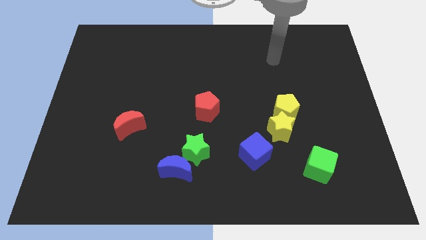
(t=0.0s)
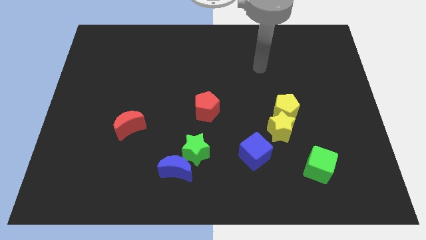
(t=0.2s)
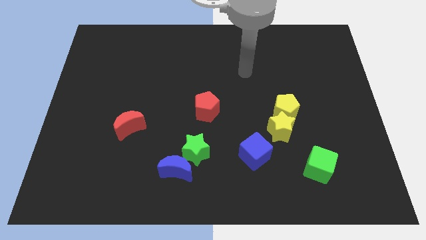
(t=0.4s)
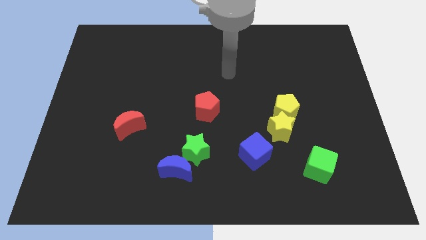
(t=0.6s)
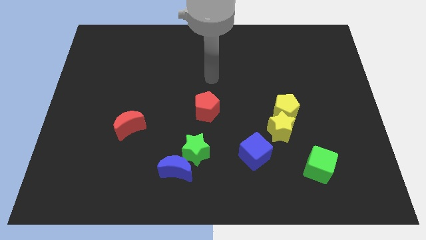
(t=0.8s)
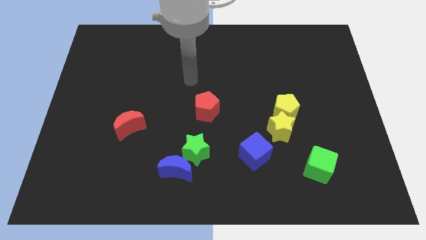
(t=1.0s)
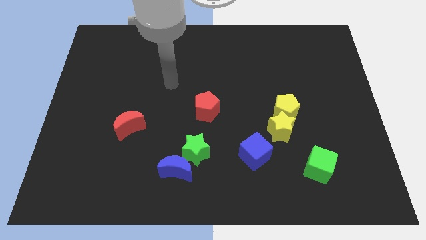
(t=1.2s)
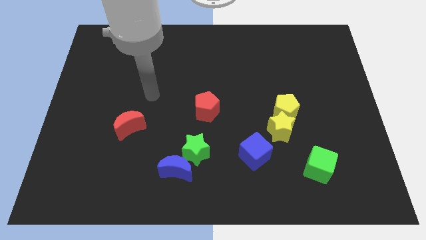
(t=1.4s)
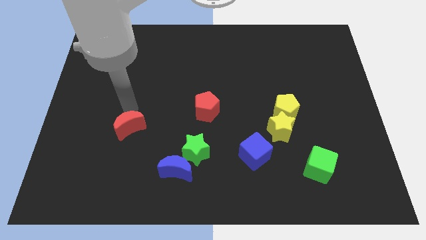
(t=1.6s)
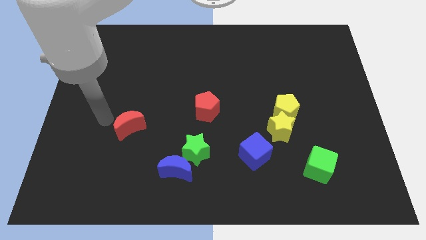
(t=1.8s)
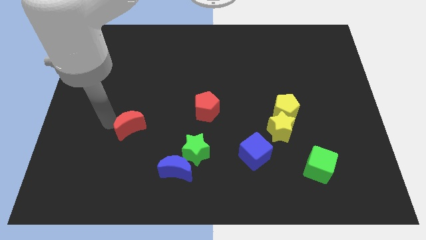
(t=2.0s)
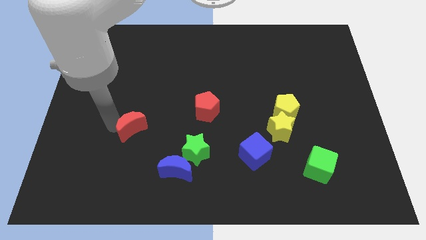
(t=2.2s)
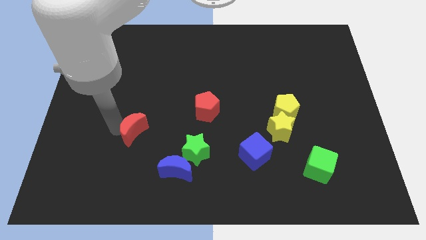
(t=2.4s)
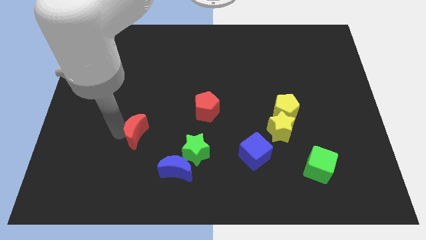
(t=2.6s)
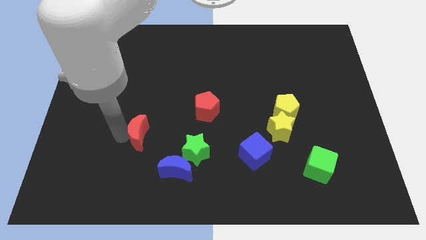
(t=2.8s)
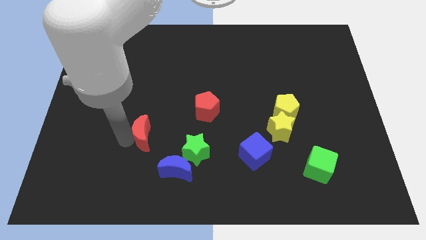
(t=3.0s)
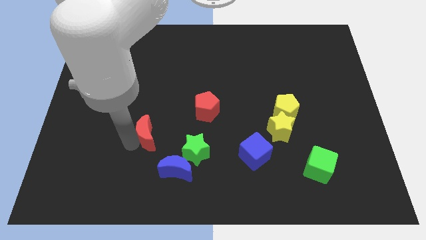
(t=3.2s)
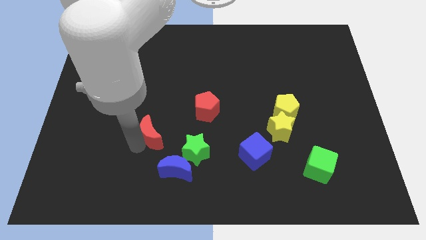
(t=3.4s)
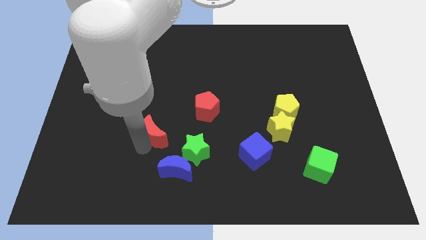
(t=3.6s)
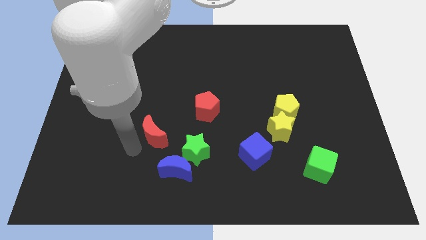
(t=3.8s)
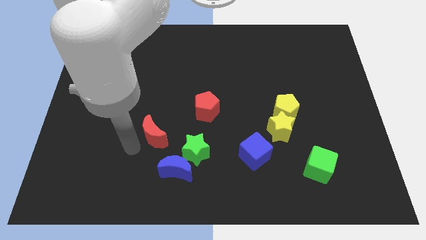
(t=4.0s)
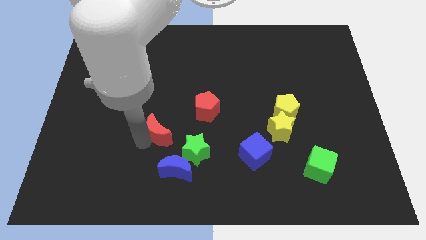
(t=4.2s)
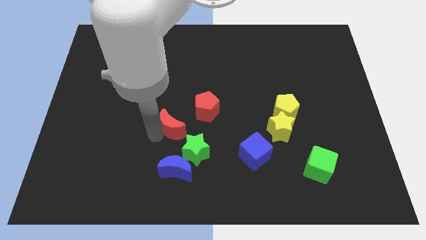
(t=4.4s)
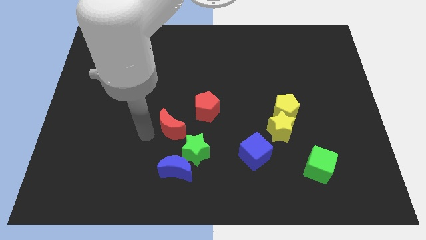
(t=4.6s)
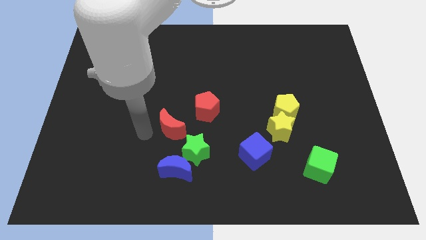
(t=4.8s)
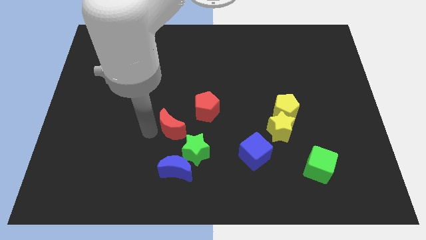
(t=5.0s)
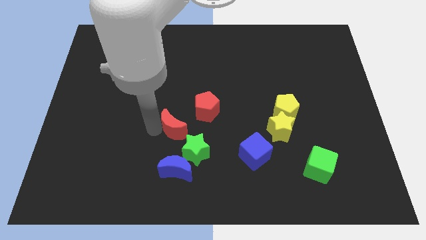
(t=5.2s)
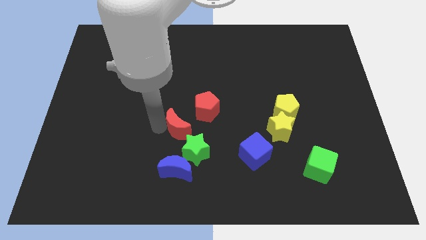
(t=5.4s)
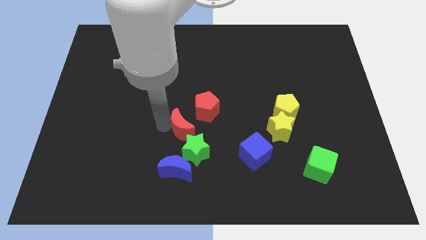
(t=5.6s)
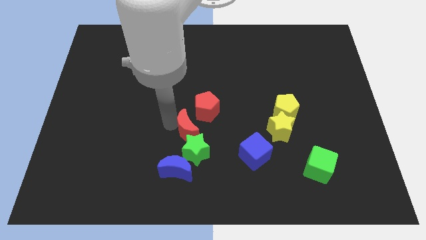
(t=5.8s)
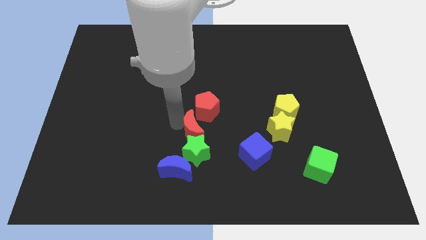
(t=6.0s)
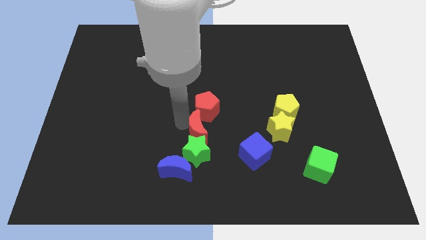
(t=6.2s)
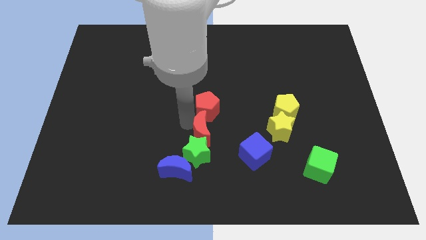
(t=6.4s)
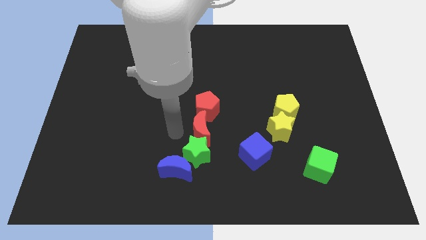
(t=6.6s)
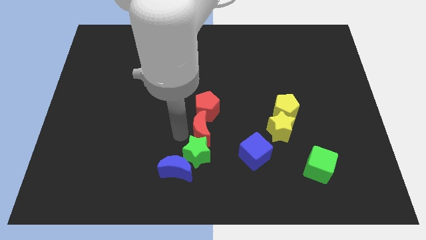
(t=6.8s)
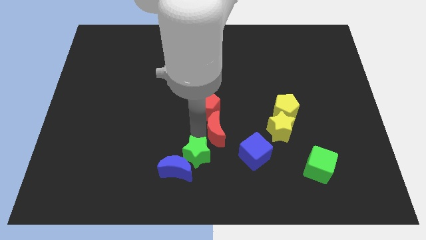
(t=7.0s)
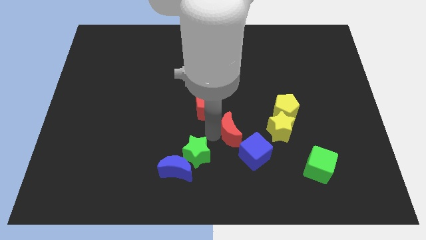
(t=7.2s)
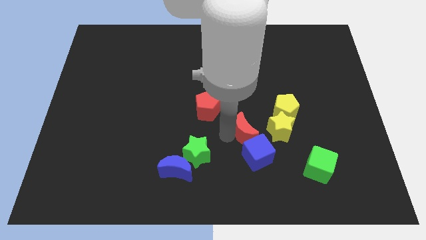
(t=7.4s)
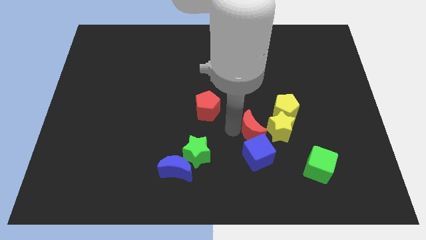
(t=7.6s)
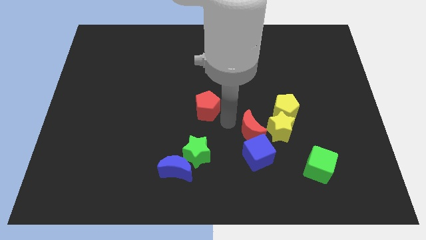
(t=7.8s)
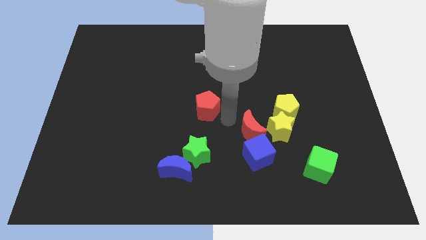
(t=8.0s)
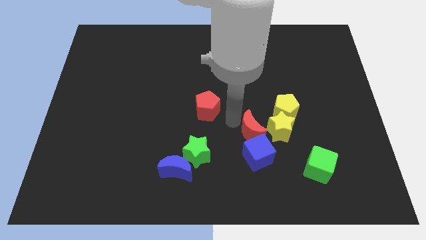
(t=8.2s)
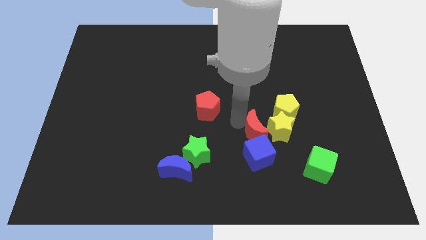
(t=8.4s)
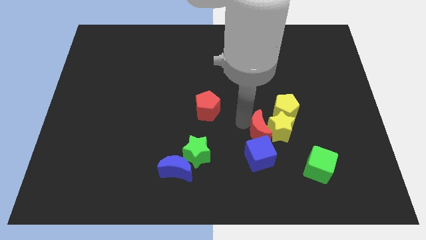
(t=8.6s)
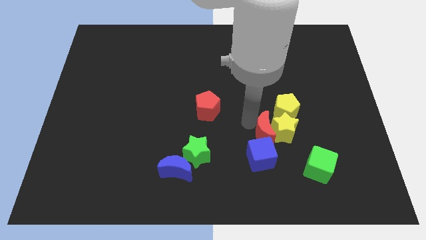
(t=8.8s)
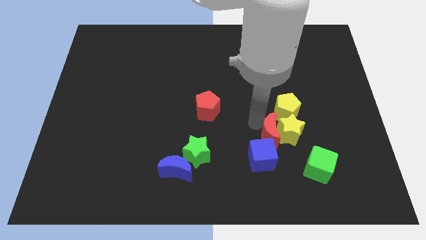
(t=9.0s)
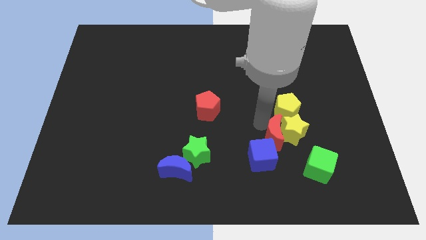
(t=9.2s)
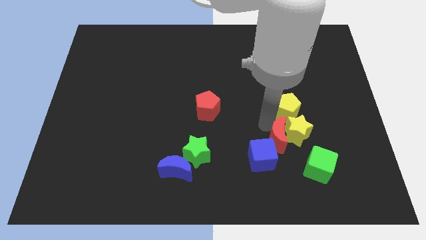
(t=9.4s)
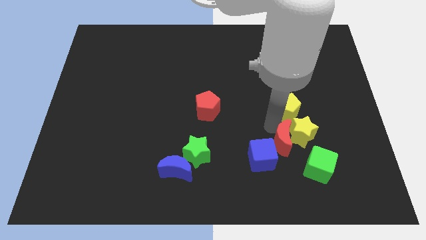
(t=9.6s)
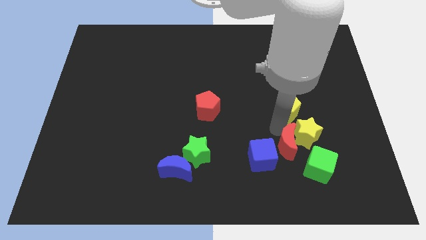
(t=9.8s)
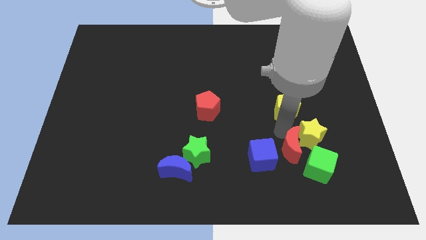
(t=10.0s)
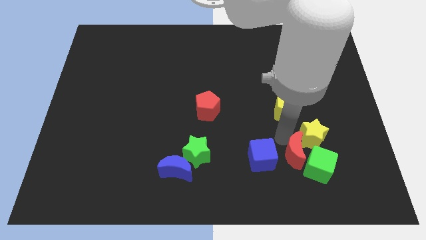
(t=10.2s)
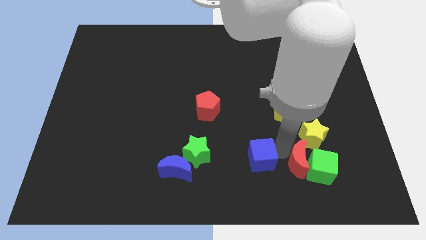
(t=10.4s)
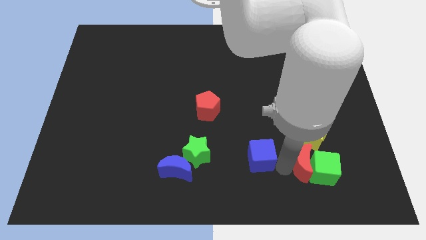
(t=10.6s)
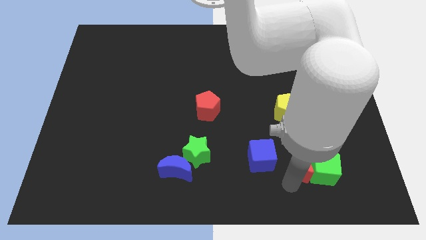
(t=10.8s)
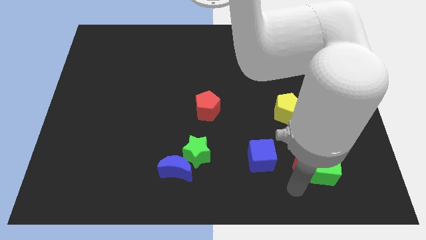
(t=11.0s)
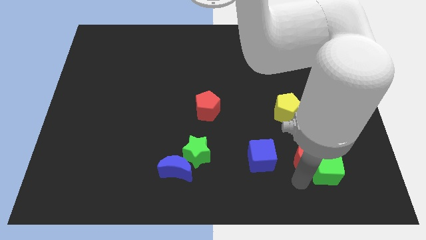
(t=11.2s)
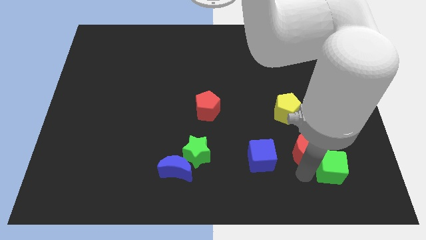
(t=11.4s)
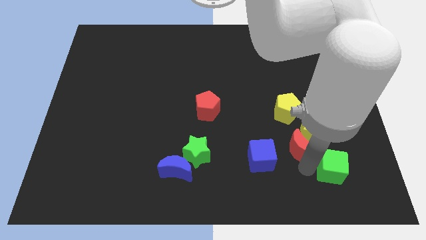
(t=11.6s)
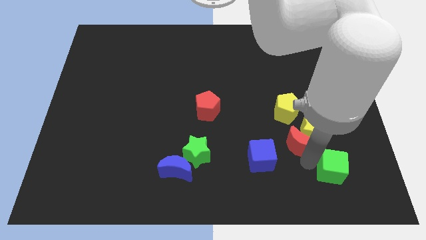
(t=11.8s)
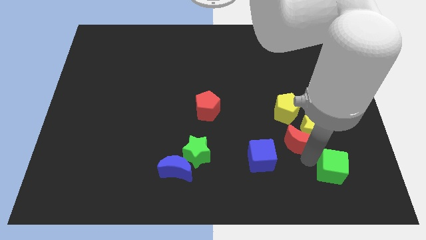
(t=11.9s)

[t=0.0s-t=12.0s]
push the red moon to the bottom right of the yellow pentagon

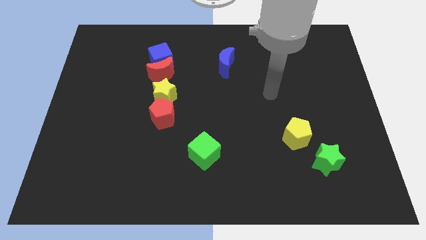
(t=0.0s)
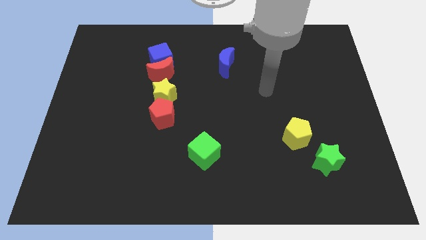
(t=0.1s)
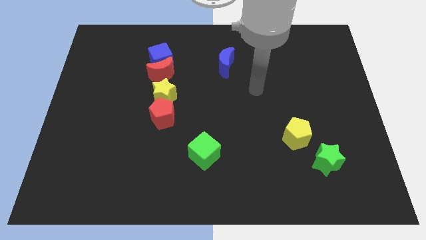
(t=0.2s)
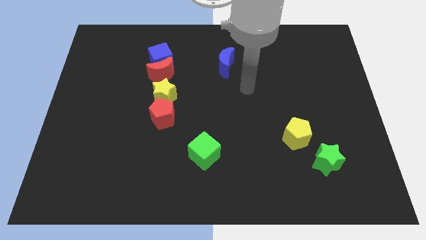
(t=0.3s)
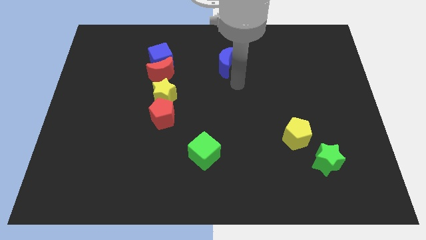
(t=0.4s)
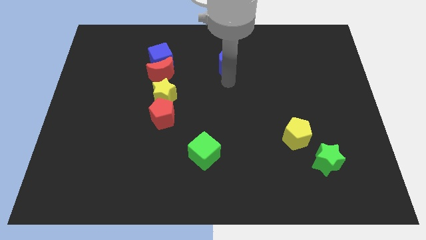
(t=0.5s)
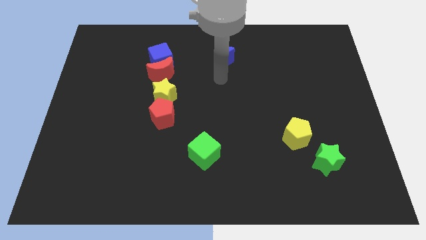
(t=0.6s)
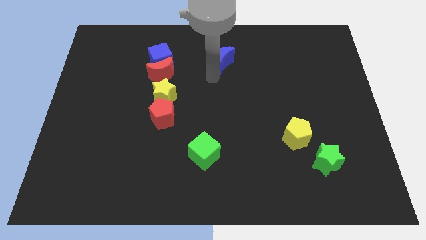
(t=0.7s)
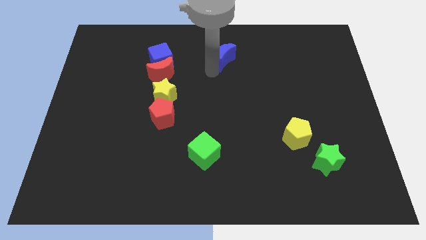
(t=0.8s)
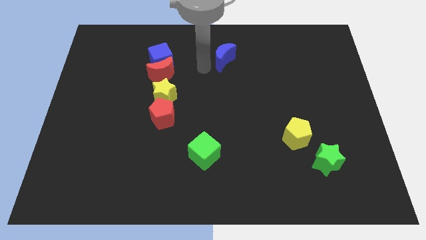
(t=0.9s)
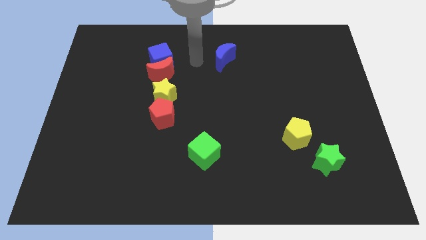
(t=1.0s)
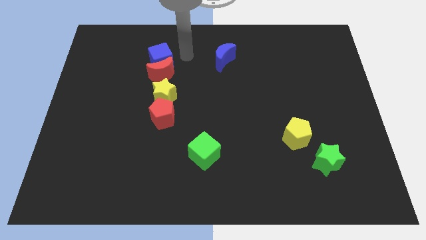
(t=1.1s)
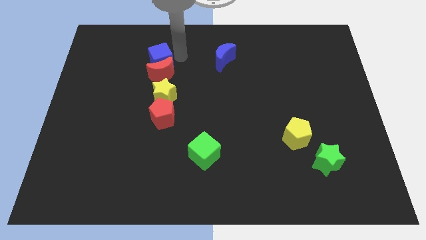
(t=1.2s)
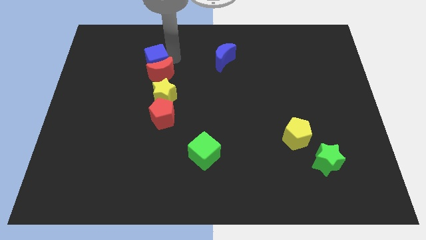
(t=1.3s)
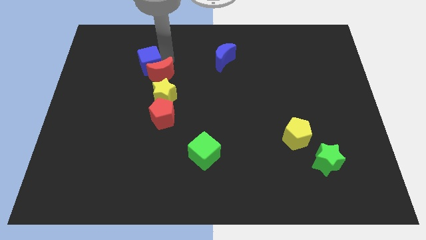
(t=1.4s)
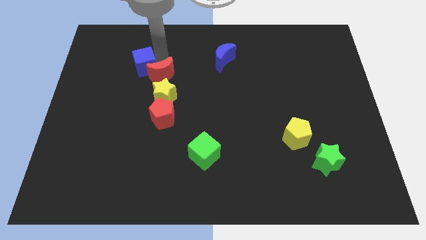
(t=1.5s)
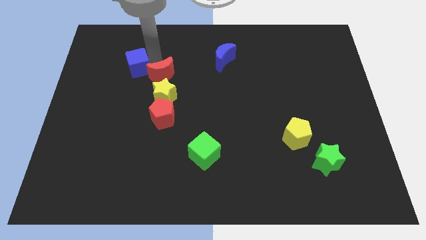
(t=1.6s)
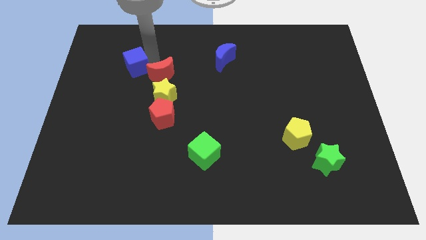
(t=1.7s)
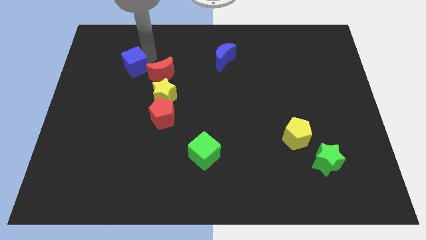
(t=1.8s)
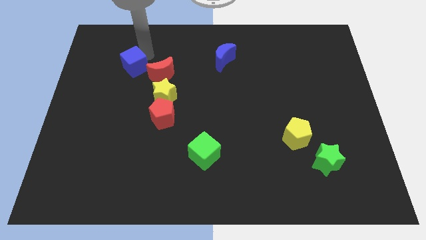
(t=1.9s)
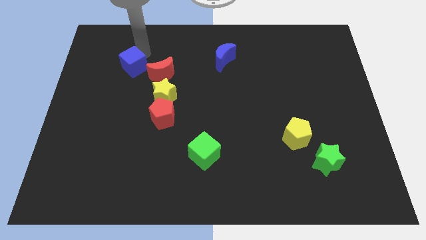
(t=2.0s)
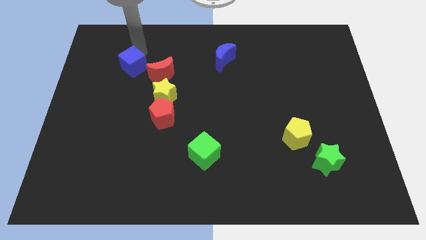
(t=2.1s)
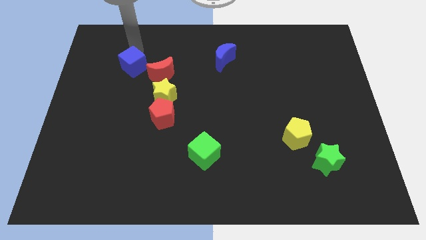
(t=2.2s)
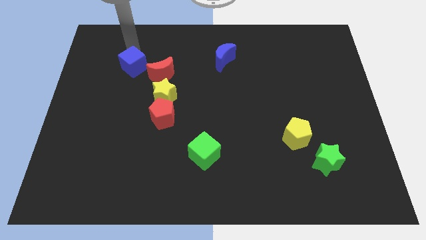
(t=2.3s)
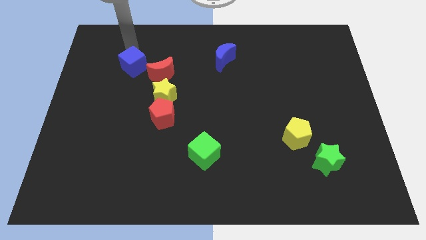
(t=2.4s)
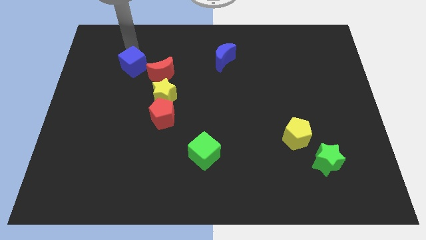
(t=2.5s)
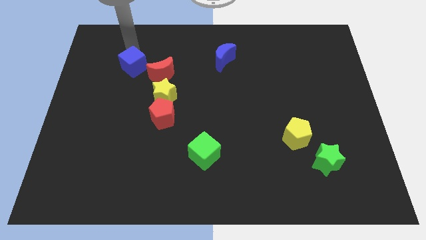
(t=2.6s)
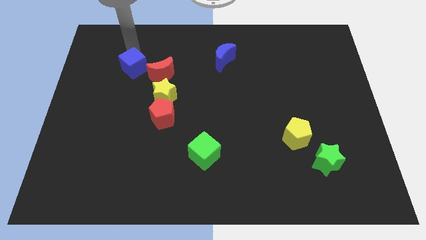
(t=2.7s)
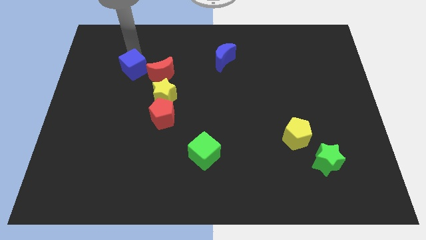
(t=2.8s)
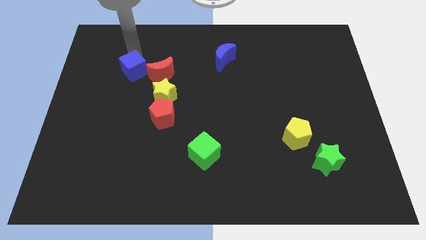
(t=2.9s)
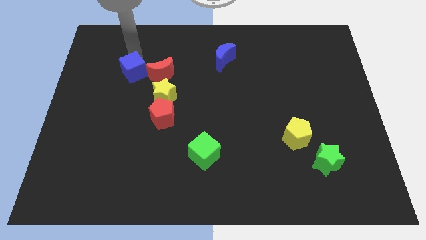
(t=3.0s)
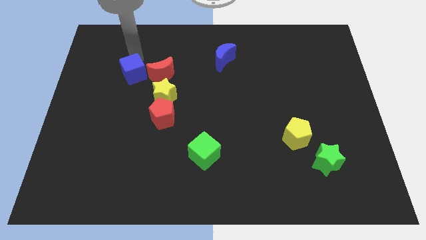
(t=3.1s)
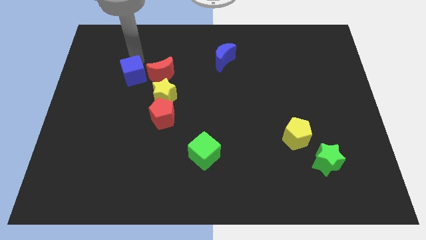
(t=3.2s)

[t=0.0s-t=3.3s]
move the blue cube to the bottom left of the red moon
